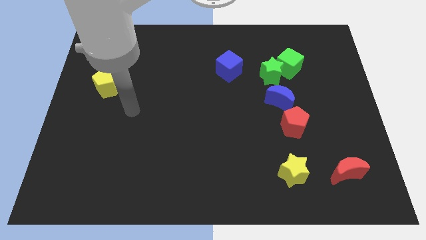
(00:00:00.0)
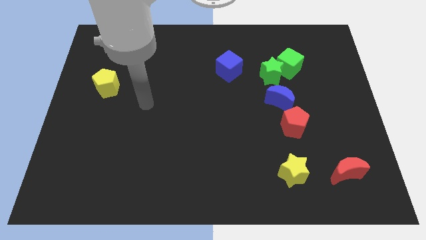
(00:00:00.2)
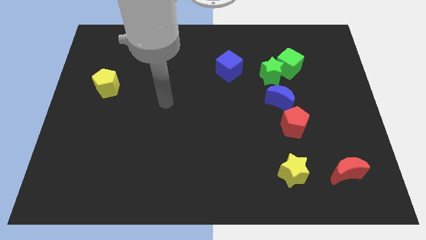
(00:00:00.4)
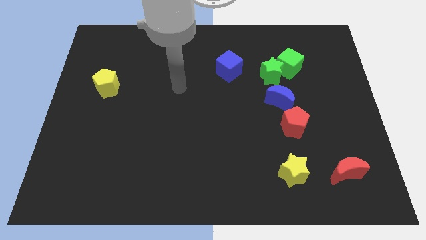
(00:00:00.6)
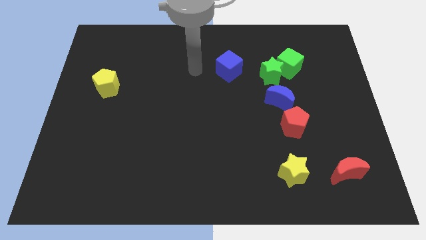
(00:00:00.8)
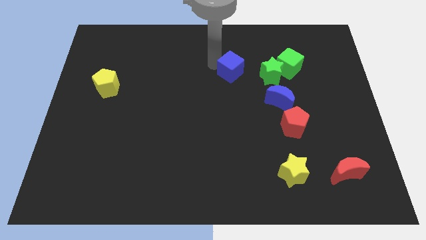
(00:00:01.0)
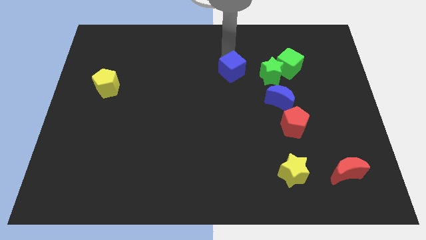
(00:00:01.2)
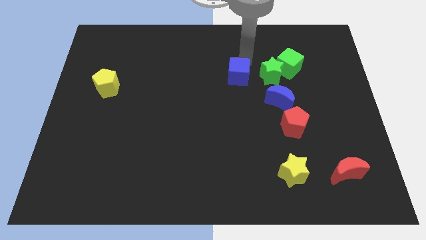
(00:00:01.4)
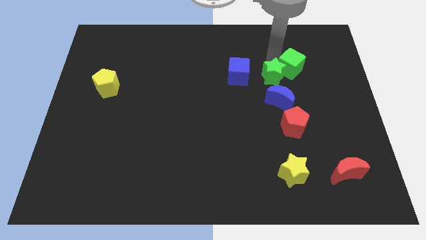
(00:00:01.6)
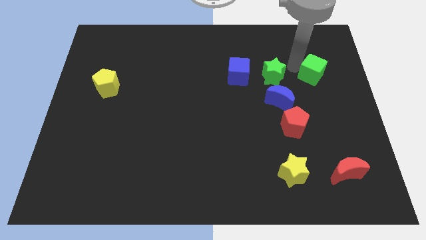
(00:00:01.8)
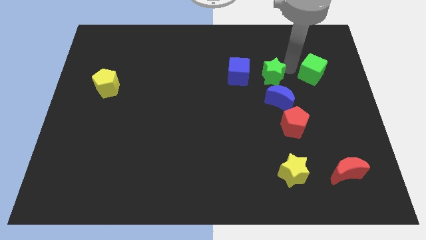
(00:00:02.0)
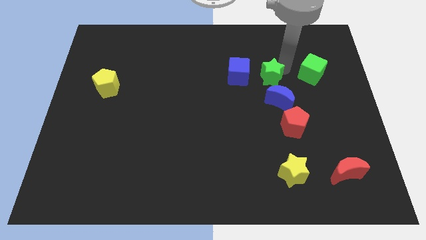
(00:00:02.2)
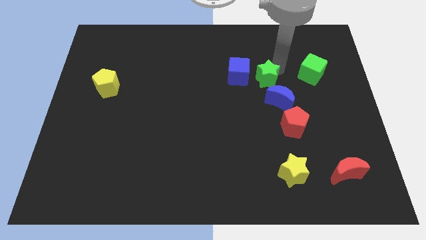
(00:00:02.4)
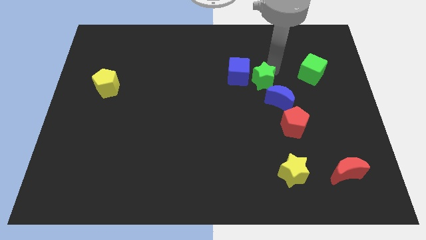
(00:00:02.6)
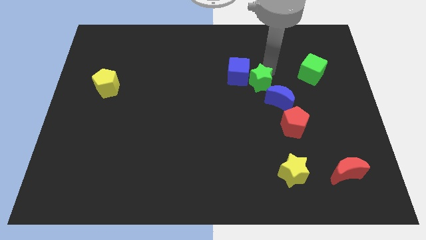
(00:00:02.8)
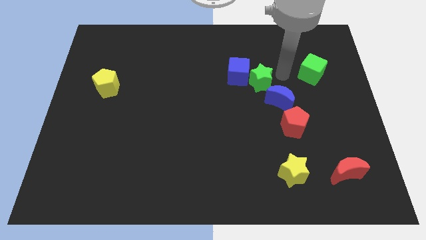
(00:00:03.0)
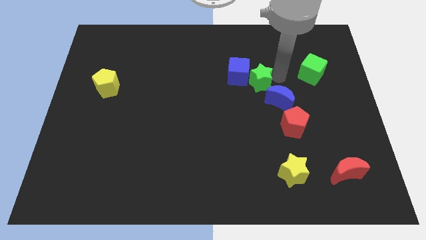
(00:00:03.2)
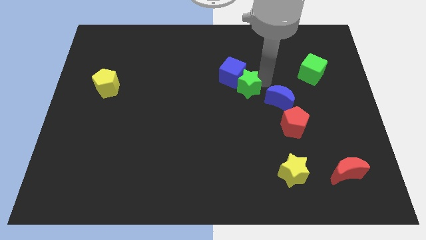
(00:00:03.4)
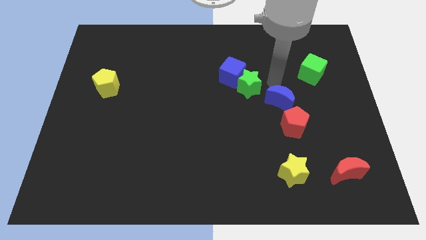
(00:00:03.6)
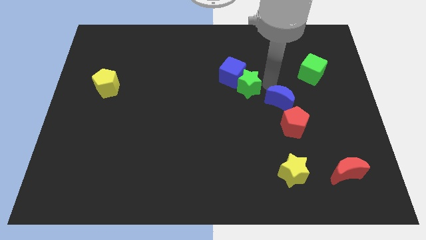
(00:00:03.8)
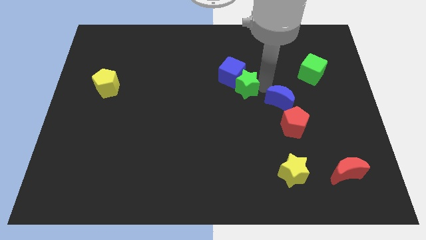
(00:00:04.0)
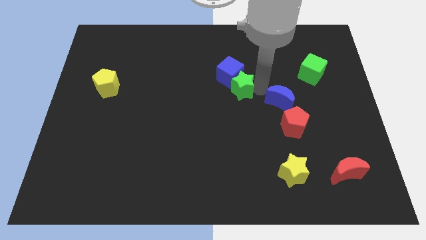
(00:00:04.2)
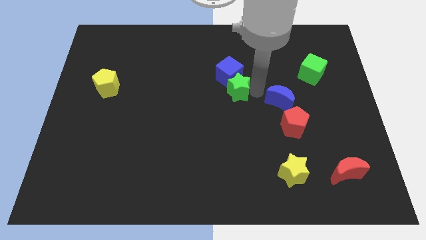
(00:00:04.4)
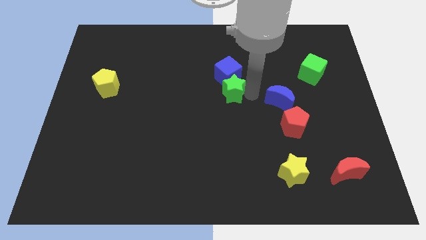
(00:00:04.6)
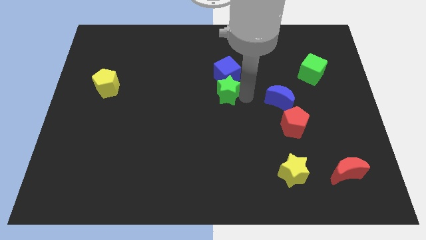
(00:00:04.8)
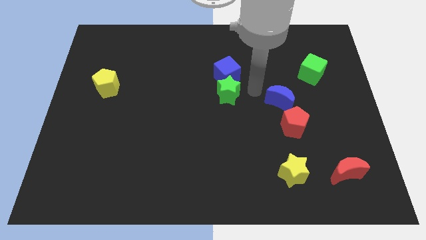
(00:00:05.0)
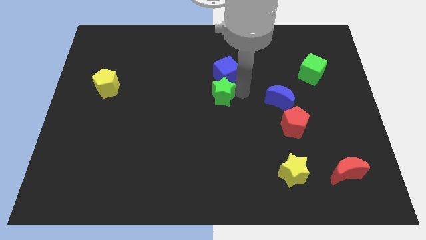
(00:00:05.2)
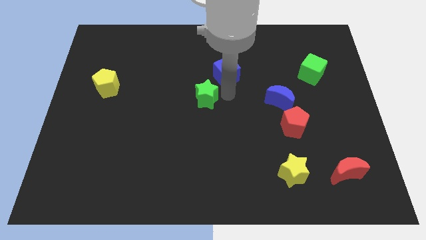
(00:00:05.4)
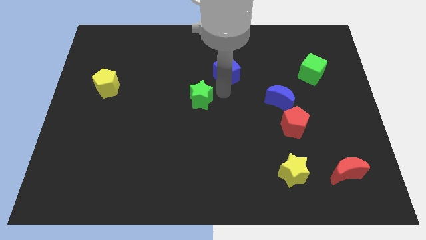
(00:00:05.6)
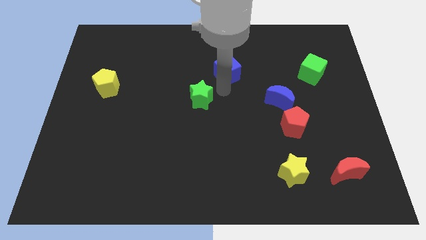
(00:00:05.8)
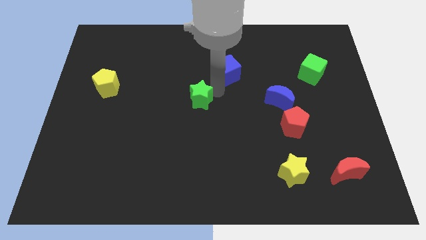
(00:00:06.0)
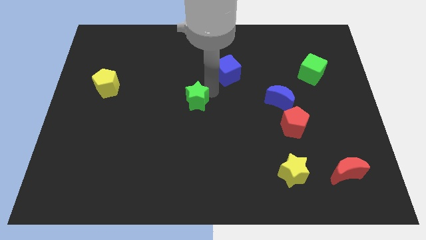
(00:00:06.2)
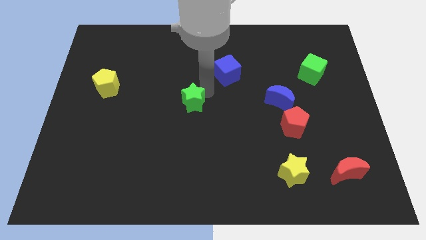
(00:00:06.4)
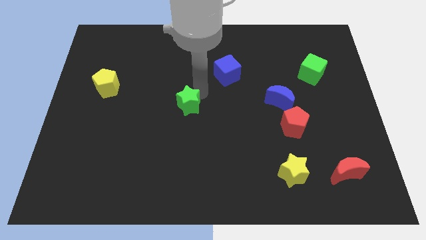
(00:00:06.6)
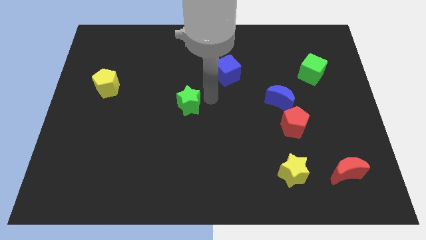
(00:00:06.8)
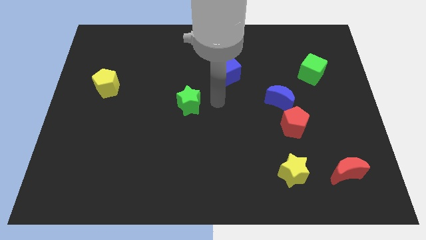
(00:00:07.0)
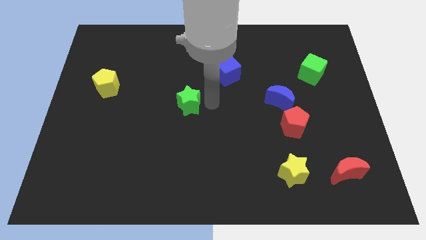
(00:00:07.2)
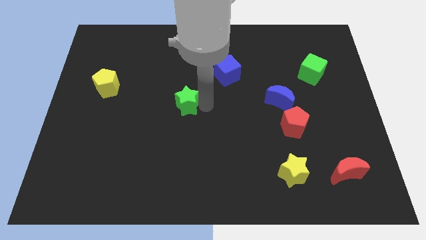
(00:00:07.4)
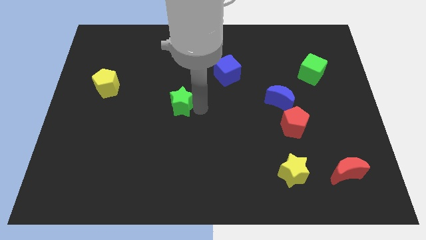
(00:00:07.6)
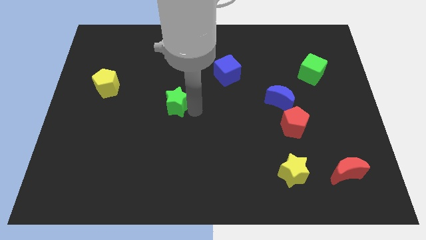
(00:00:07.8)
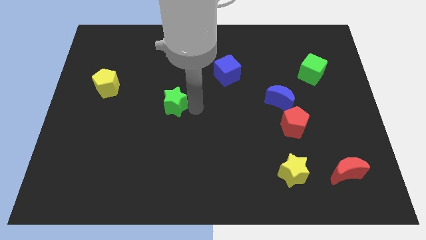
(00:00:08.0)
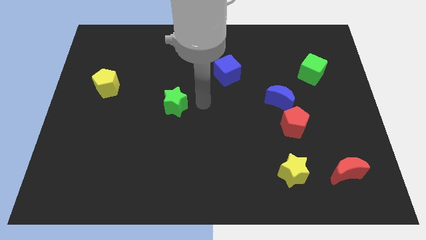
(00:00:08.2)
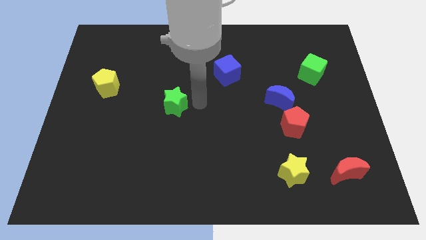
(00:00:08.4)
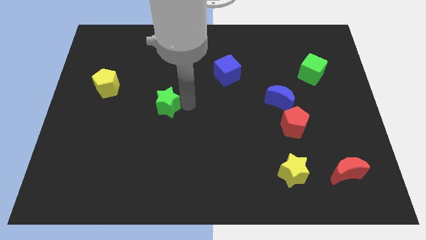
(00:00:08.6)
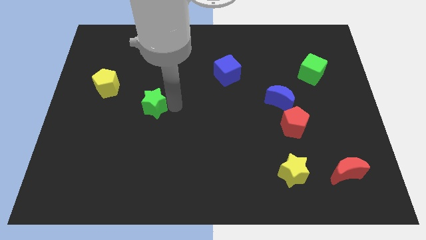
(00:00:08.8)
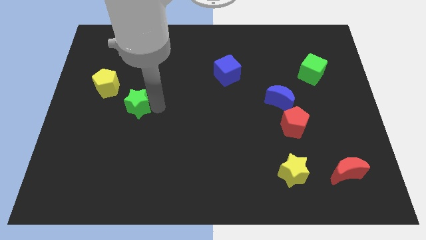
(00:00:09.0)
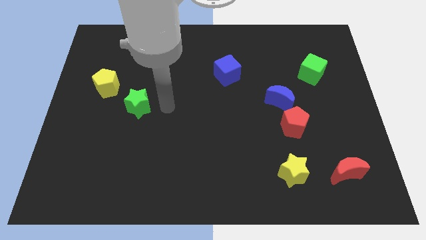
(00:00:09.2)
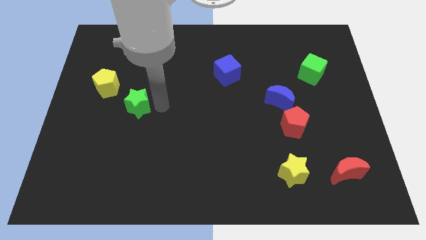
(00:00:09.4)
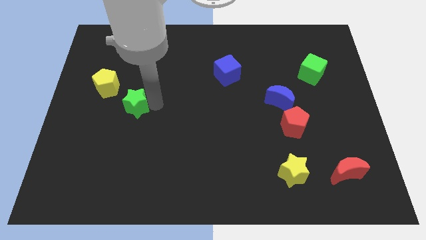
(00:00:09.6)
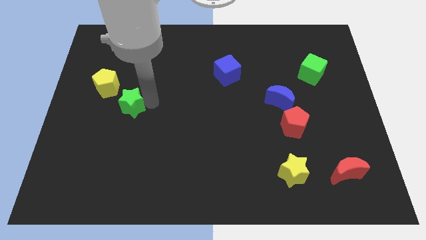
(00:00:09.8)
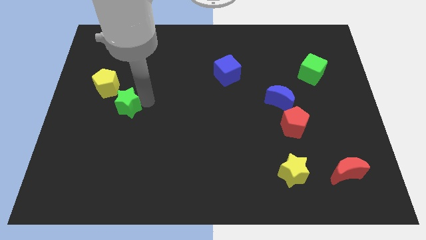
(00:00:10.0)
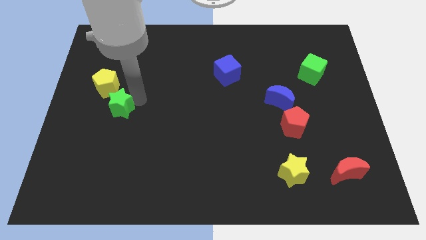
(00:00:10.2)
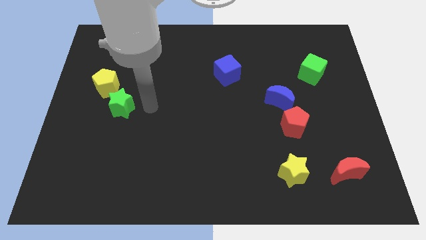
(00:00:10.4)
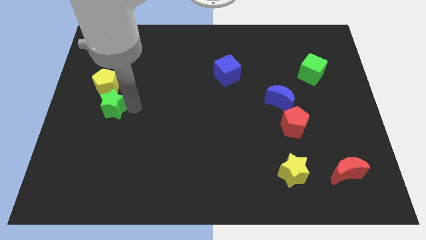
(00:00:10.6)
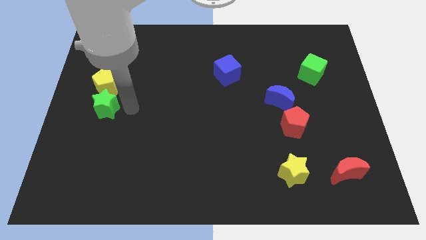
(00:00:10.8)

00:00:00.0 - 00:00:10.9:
slide the green star to the left side

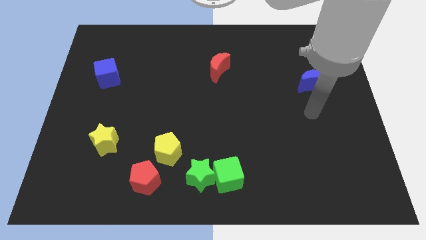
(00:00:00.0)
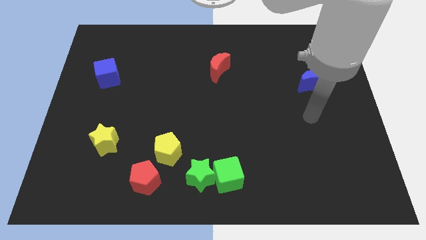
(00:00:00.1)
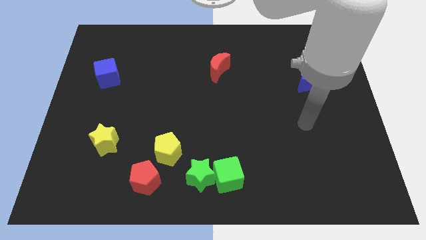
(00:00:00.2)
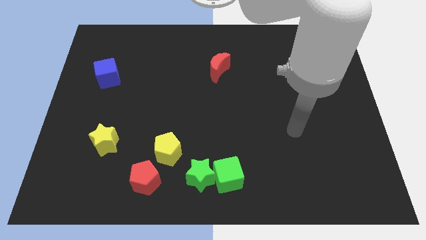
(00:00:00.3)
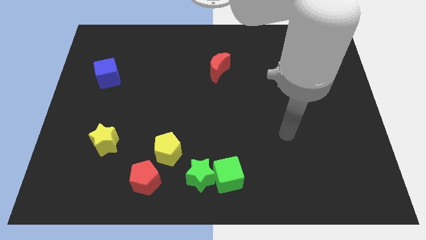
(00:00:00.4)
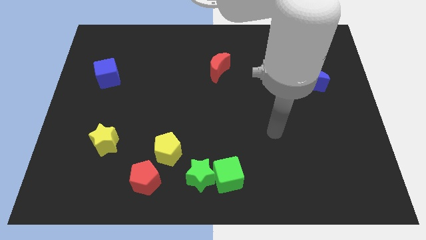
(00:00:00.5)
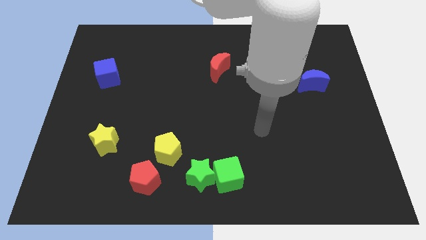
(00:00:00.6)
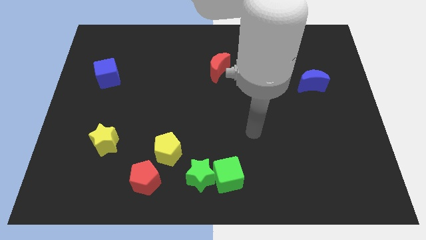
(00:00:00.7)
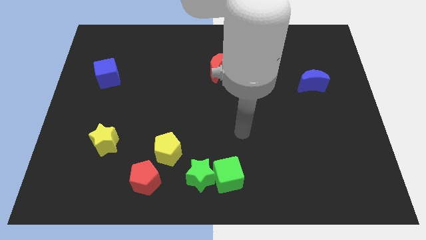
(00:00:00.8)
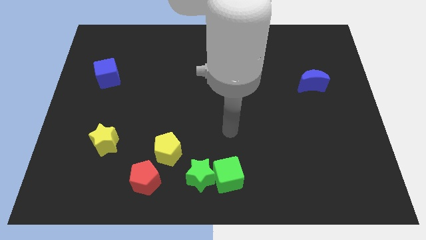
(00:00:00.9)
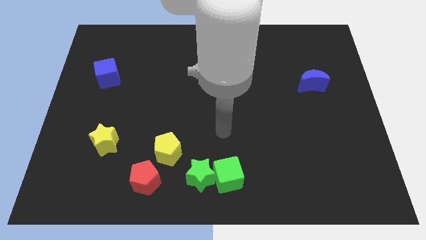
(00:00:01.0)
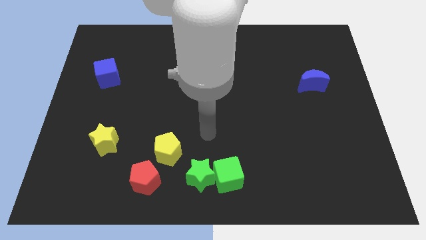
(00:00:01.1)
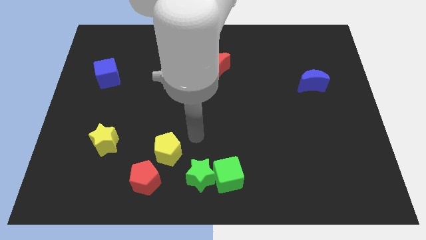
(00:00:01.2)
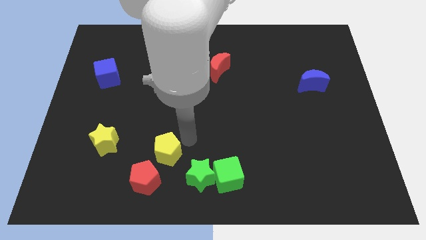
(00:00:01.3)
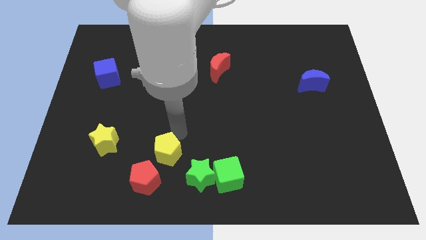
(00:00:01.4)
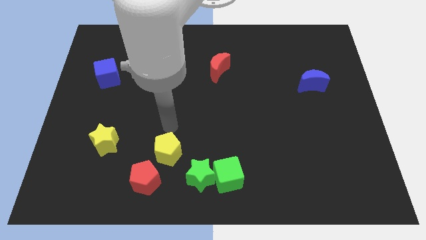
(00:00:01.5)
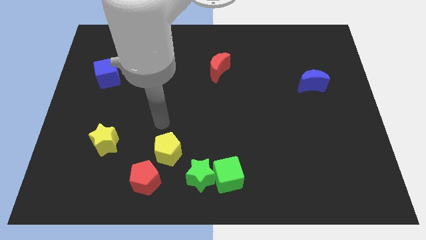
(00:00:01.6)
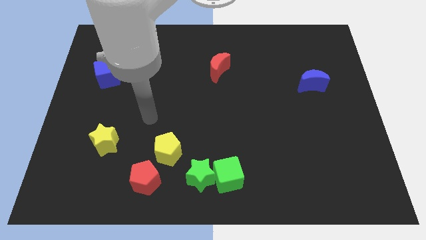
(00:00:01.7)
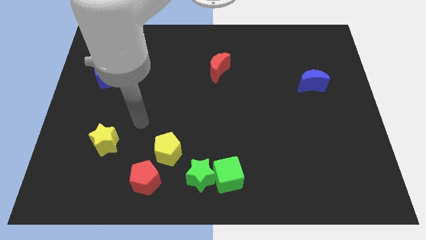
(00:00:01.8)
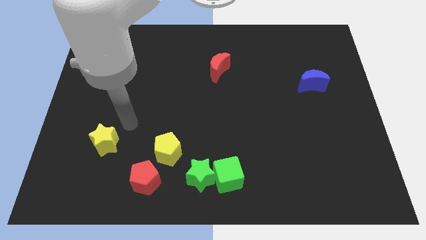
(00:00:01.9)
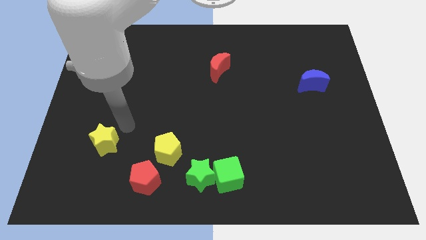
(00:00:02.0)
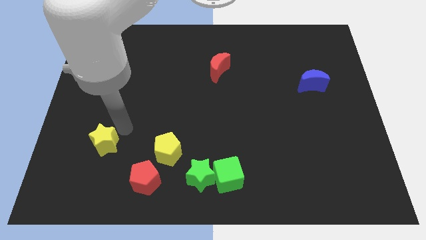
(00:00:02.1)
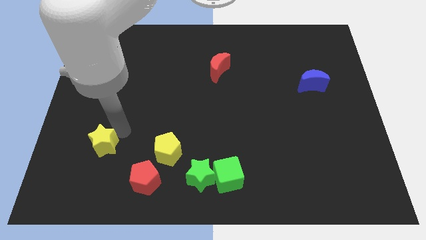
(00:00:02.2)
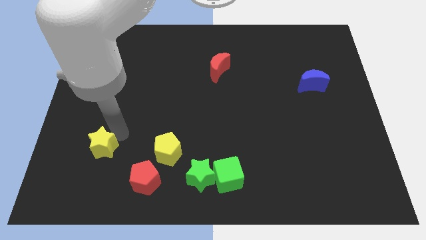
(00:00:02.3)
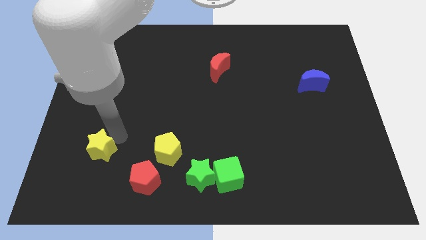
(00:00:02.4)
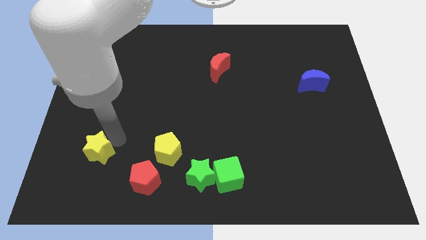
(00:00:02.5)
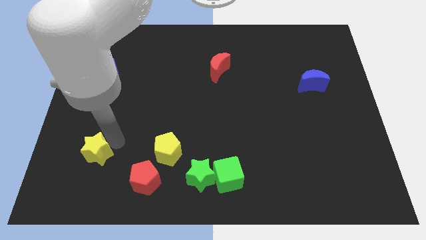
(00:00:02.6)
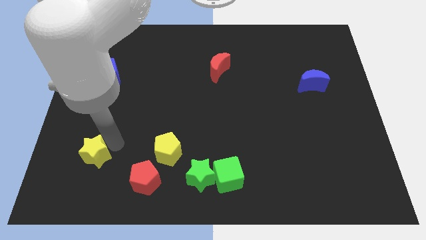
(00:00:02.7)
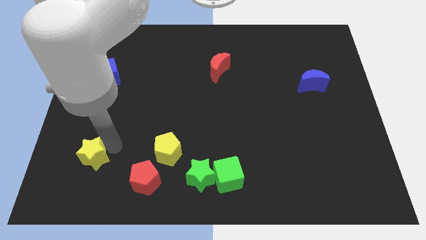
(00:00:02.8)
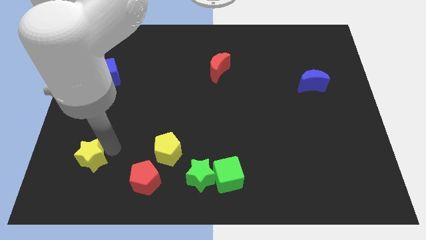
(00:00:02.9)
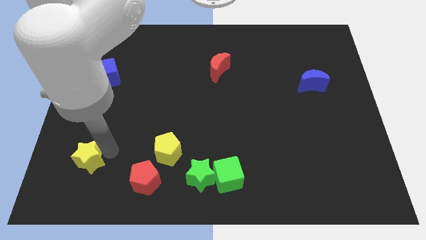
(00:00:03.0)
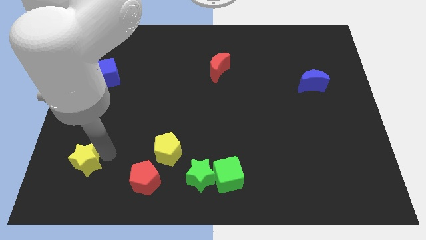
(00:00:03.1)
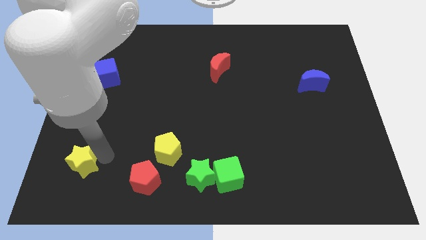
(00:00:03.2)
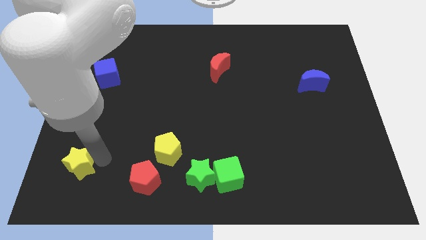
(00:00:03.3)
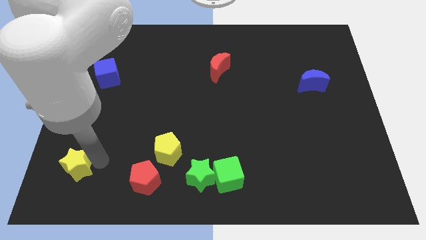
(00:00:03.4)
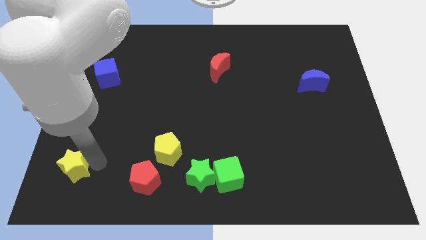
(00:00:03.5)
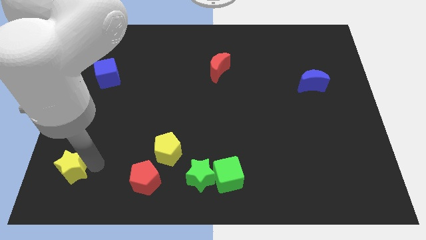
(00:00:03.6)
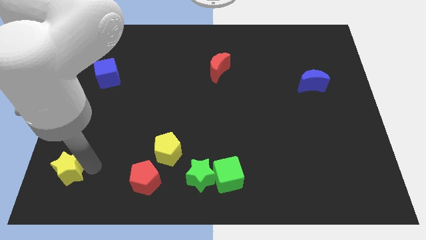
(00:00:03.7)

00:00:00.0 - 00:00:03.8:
put the yellow star to the bottom left corner
